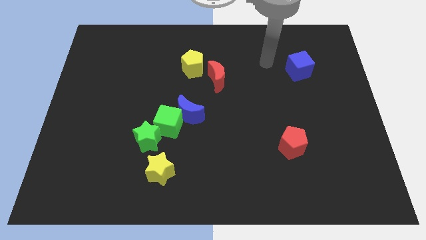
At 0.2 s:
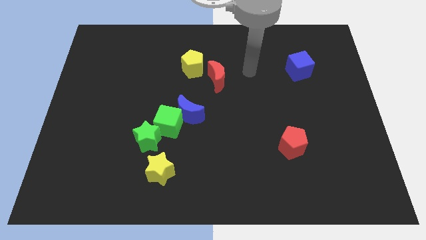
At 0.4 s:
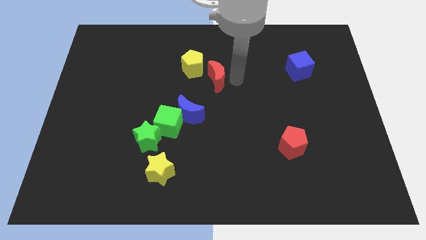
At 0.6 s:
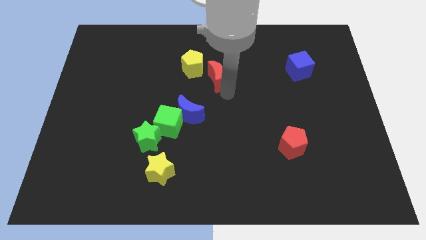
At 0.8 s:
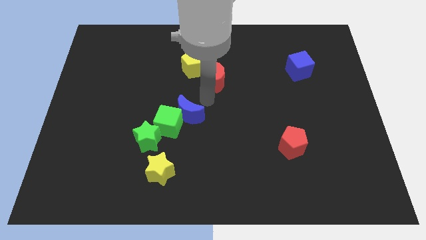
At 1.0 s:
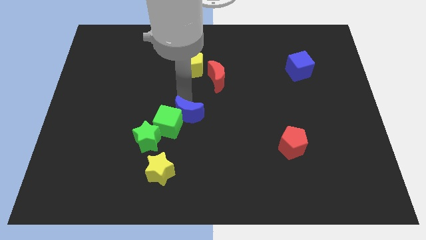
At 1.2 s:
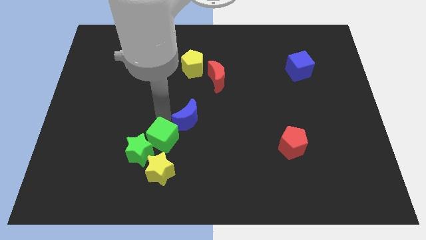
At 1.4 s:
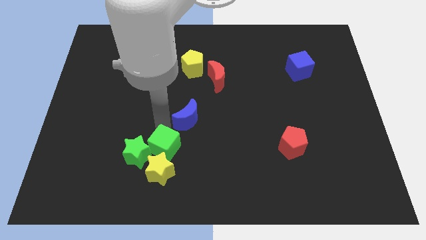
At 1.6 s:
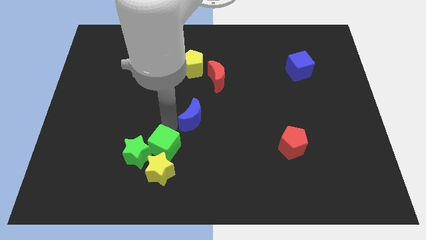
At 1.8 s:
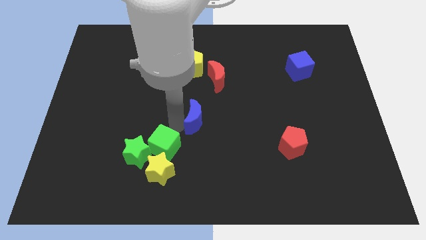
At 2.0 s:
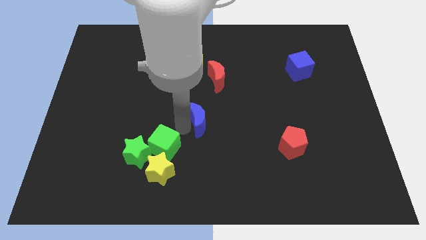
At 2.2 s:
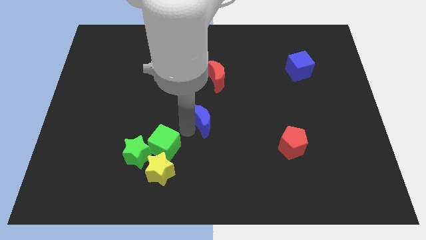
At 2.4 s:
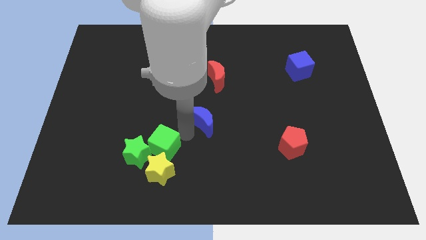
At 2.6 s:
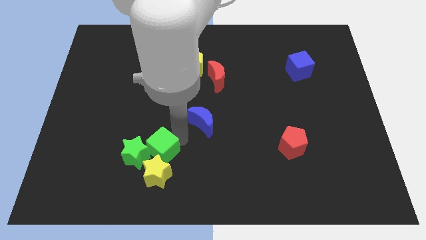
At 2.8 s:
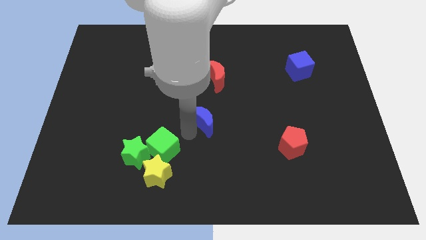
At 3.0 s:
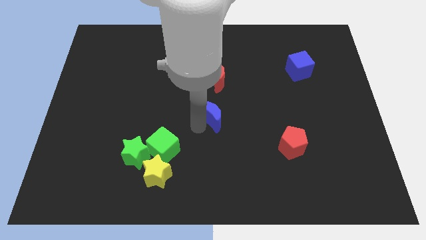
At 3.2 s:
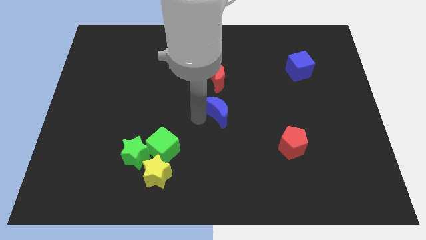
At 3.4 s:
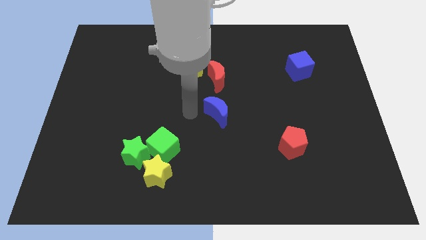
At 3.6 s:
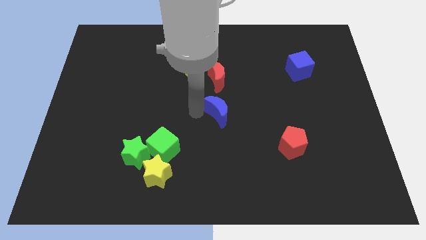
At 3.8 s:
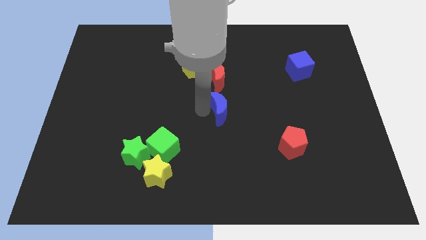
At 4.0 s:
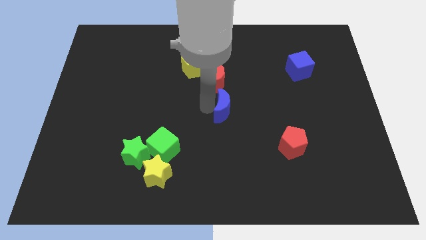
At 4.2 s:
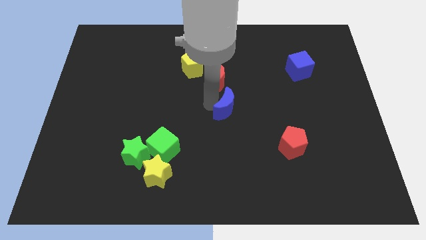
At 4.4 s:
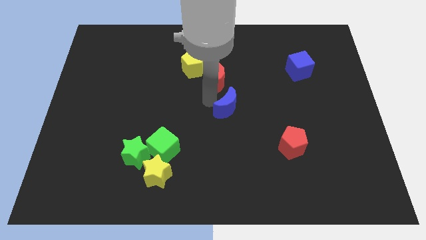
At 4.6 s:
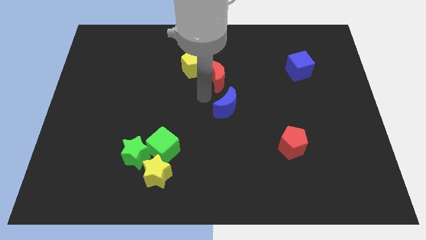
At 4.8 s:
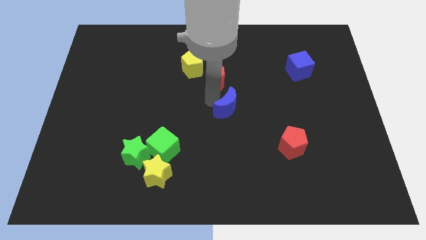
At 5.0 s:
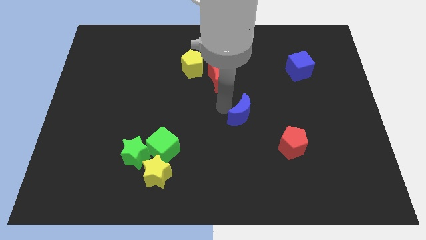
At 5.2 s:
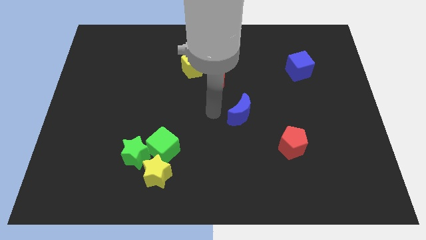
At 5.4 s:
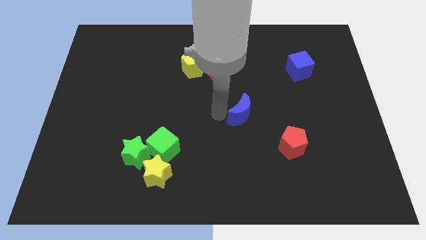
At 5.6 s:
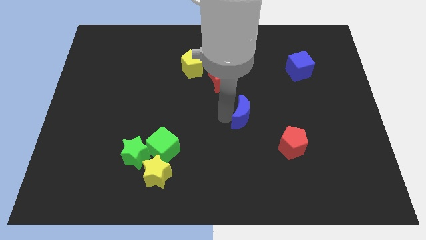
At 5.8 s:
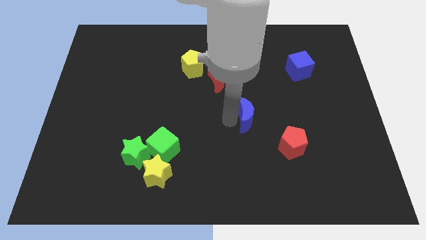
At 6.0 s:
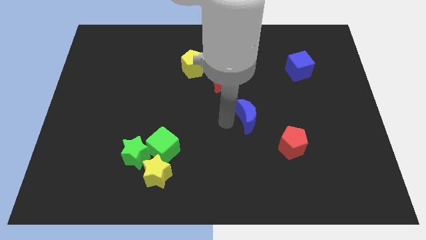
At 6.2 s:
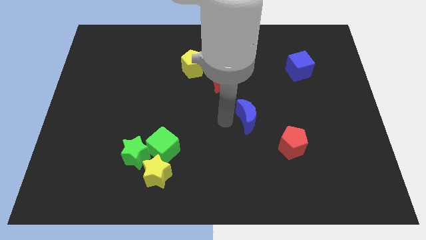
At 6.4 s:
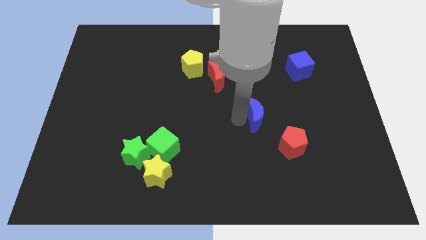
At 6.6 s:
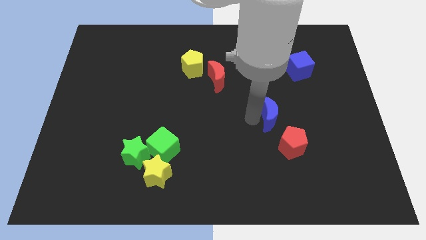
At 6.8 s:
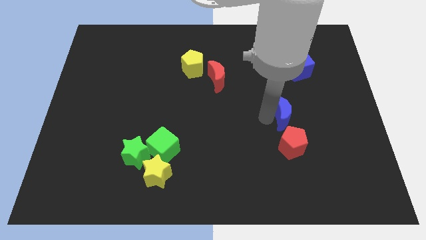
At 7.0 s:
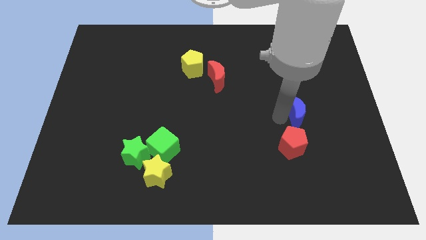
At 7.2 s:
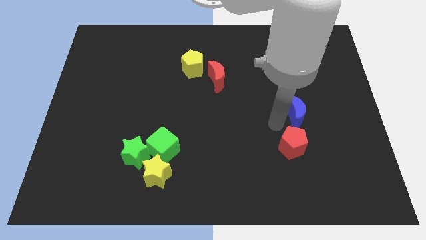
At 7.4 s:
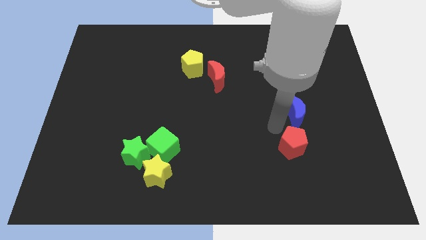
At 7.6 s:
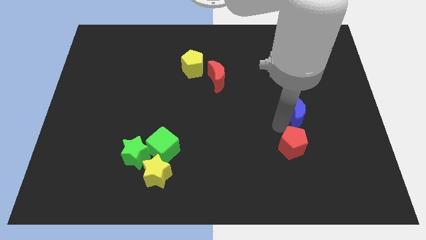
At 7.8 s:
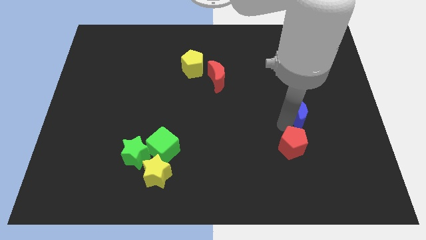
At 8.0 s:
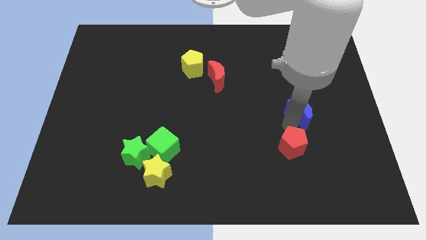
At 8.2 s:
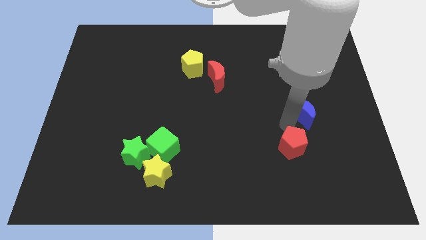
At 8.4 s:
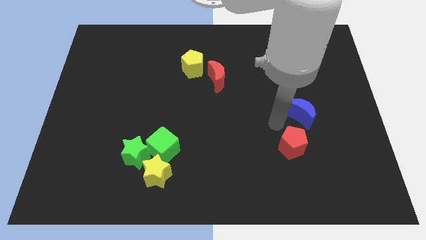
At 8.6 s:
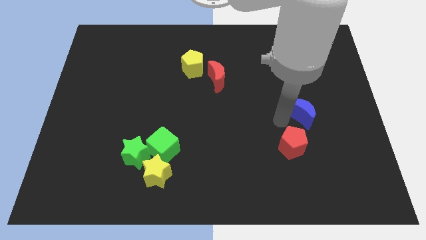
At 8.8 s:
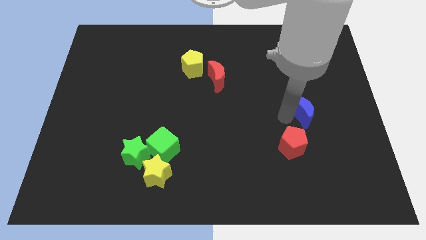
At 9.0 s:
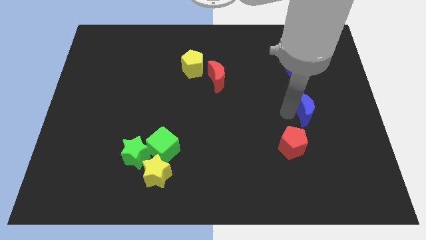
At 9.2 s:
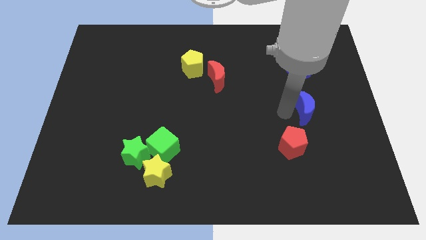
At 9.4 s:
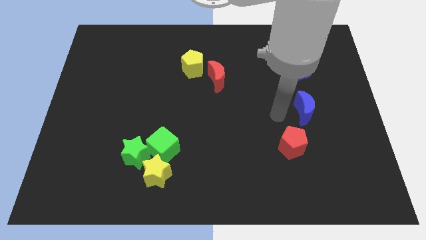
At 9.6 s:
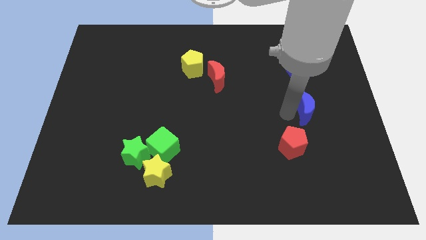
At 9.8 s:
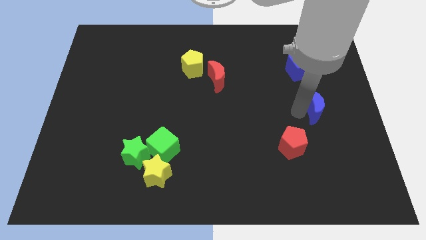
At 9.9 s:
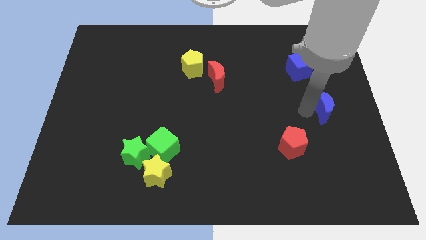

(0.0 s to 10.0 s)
push the blue moon to the right side

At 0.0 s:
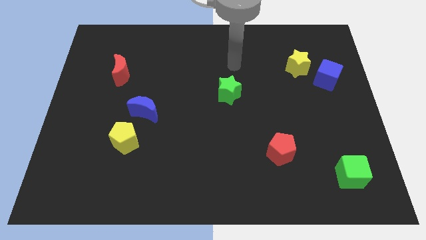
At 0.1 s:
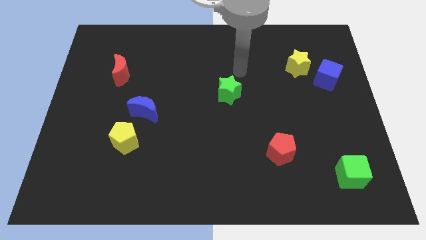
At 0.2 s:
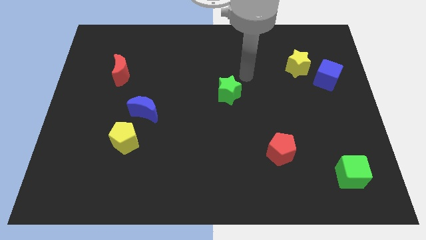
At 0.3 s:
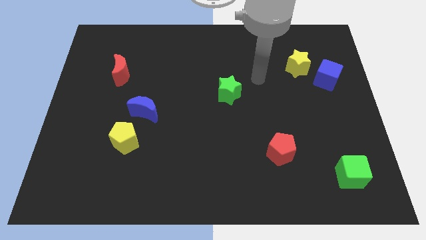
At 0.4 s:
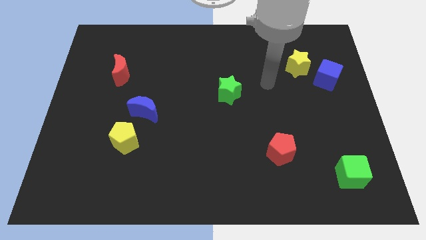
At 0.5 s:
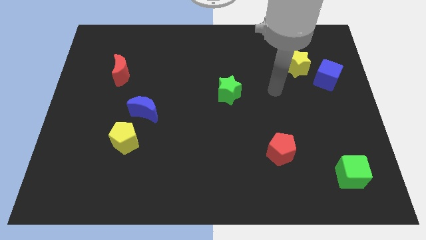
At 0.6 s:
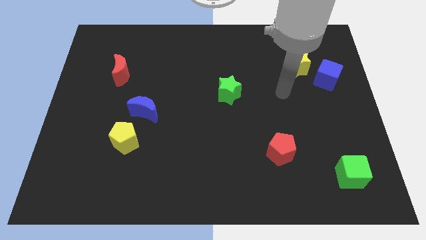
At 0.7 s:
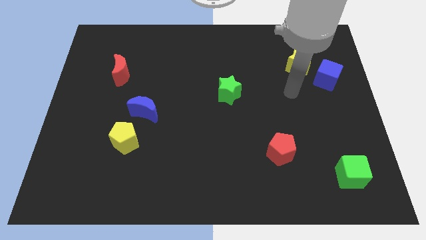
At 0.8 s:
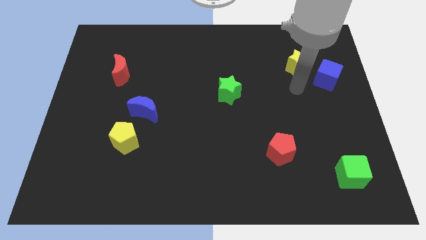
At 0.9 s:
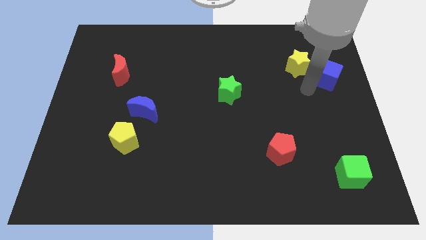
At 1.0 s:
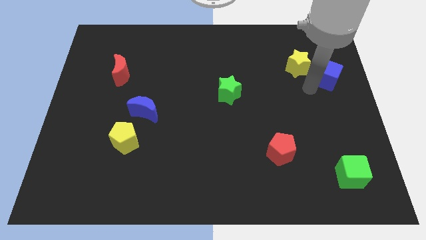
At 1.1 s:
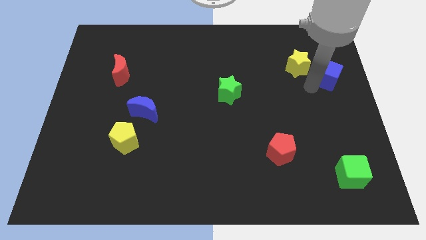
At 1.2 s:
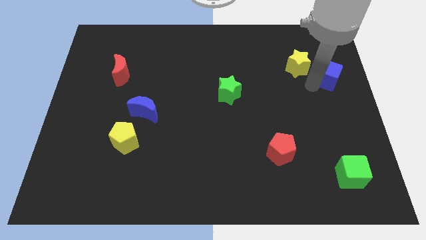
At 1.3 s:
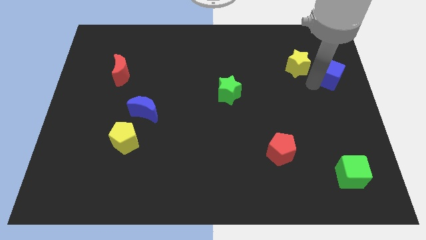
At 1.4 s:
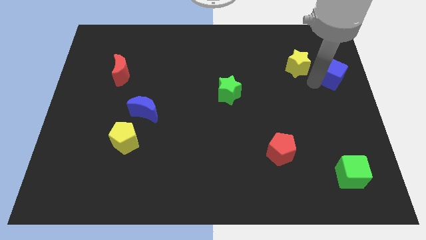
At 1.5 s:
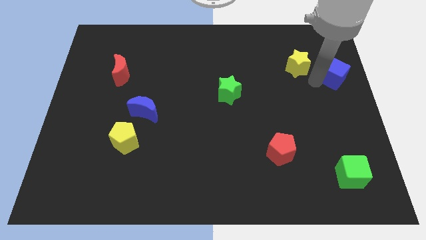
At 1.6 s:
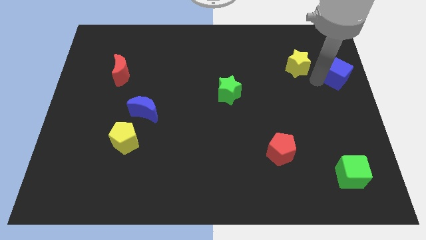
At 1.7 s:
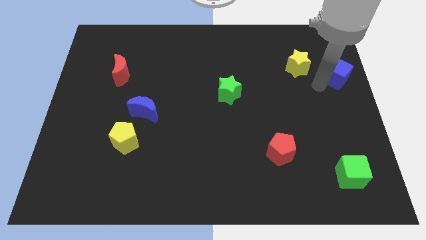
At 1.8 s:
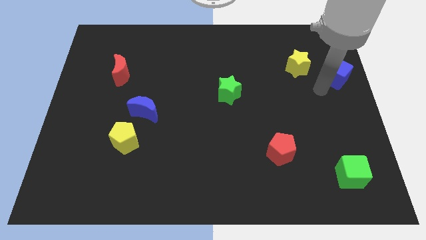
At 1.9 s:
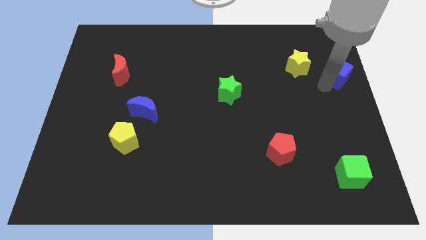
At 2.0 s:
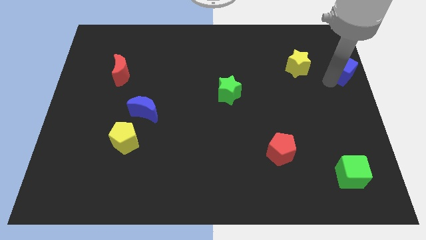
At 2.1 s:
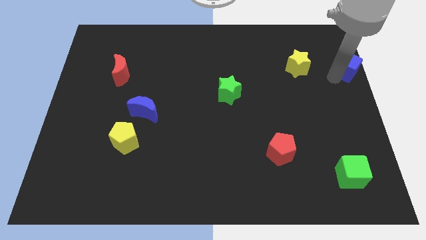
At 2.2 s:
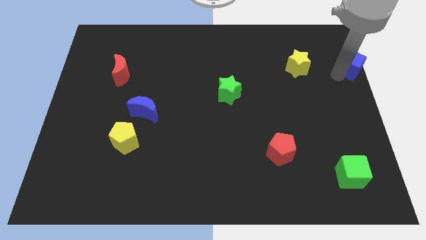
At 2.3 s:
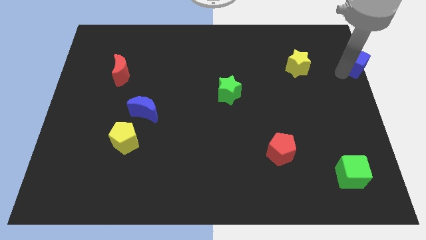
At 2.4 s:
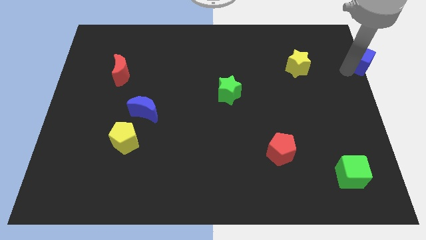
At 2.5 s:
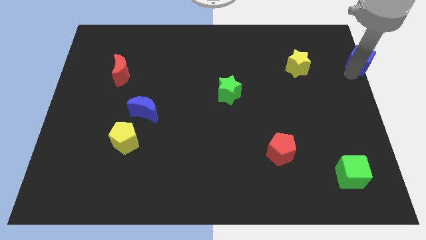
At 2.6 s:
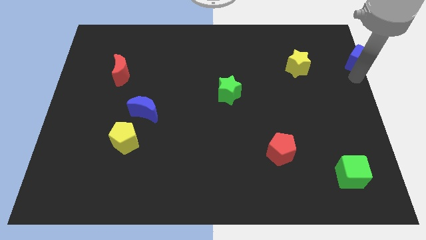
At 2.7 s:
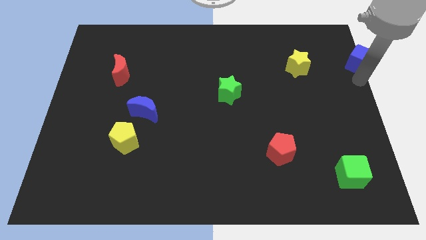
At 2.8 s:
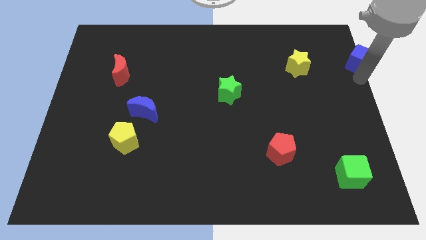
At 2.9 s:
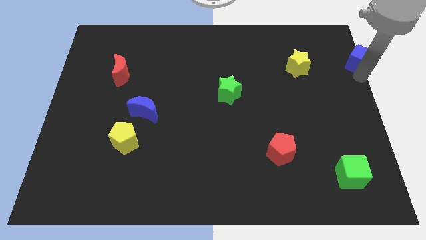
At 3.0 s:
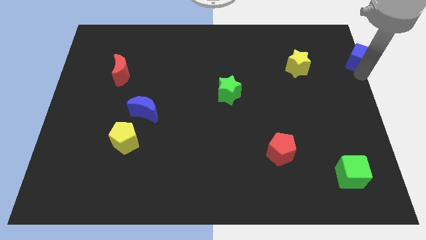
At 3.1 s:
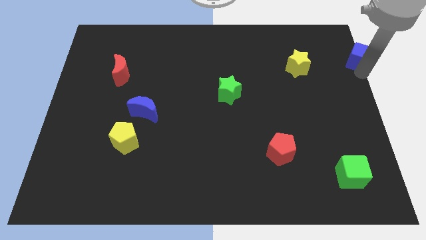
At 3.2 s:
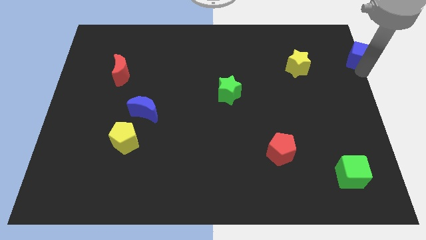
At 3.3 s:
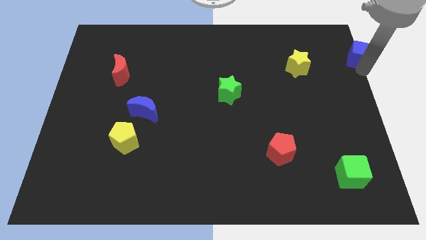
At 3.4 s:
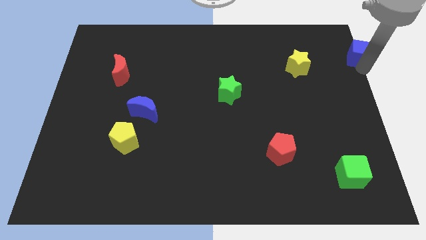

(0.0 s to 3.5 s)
slide the blue cube to the top right corner
